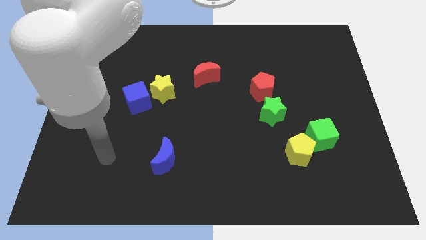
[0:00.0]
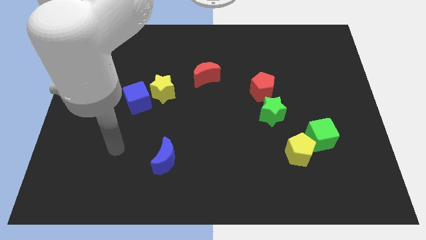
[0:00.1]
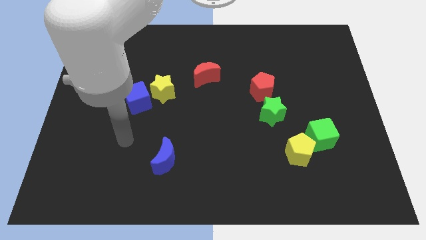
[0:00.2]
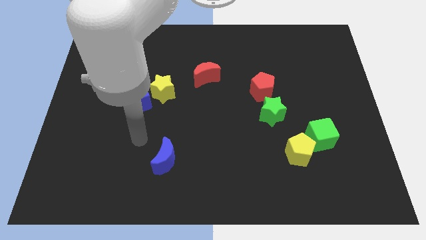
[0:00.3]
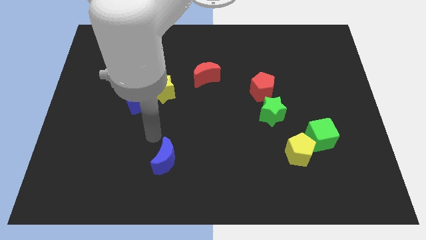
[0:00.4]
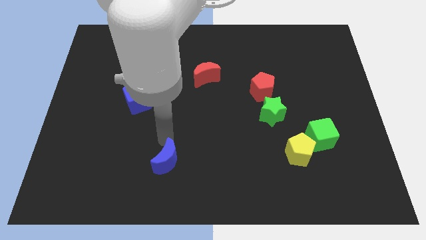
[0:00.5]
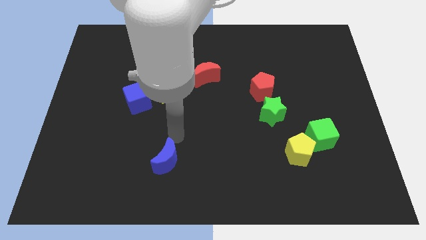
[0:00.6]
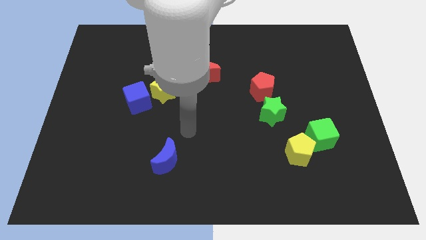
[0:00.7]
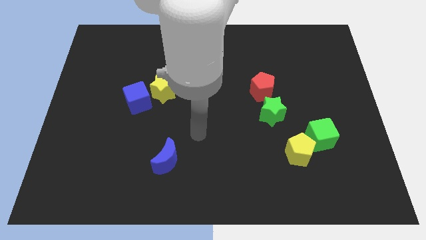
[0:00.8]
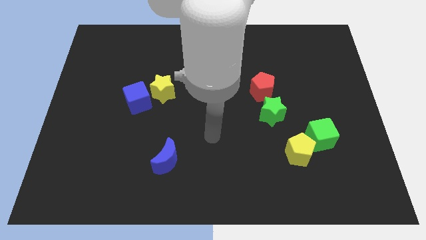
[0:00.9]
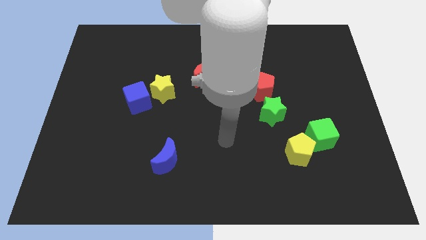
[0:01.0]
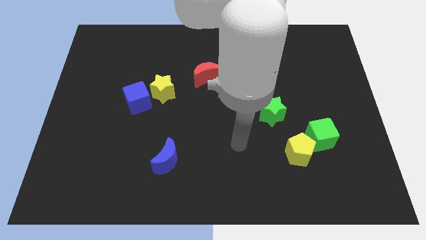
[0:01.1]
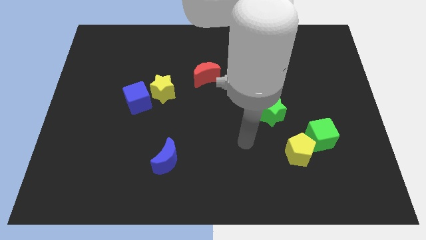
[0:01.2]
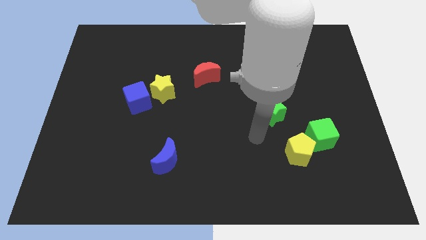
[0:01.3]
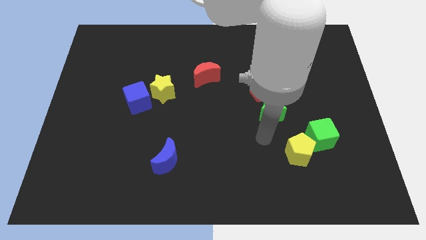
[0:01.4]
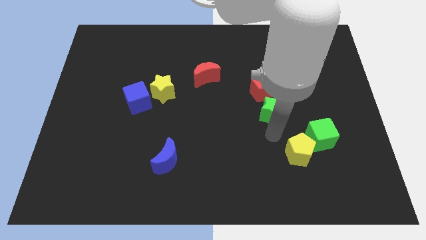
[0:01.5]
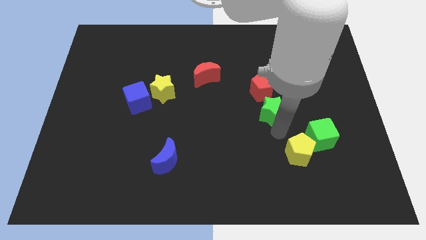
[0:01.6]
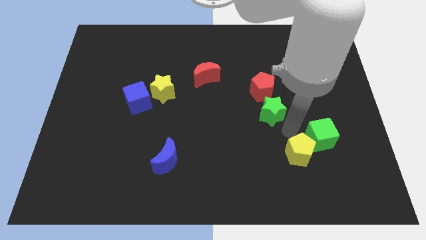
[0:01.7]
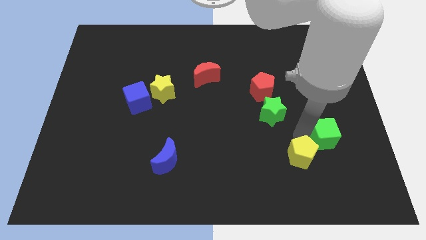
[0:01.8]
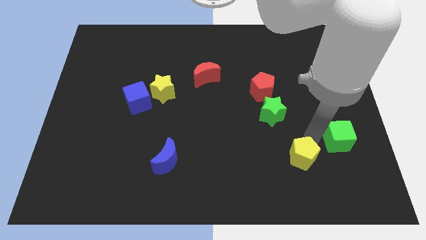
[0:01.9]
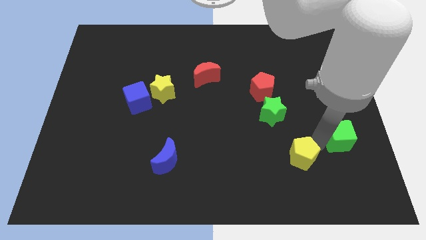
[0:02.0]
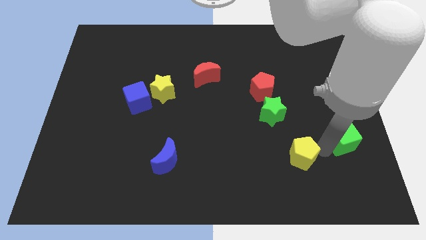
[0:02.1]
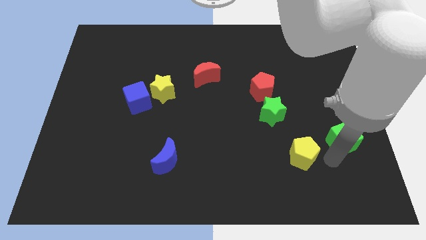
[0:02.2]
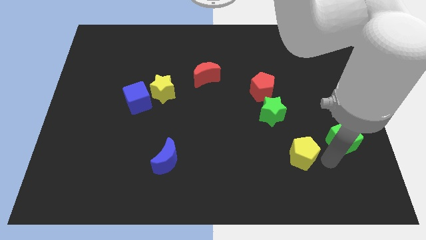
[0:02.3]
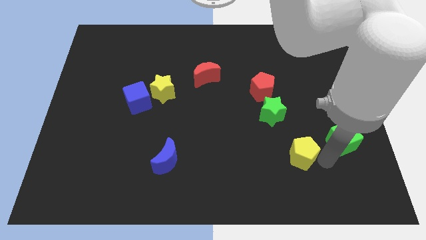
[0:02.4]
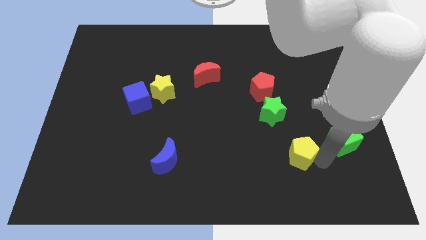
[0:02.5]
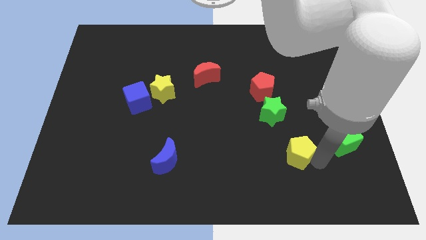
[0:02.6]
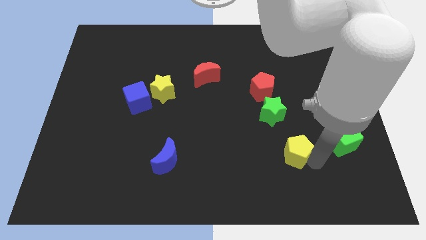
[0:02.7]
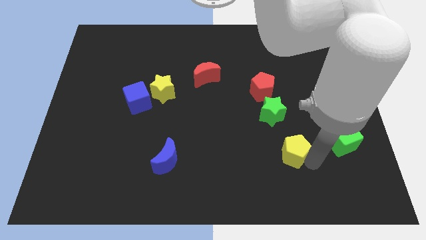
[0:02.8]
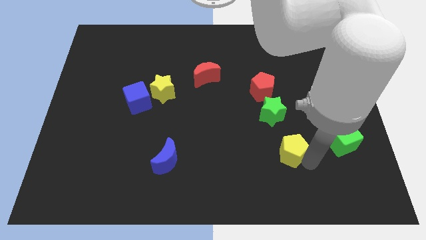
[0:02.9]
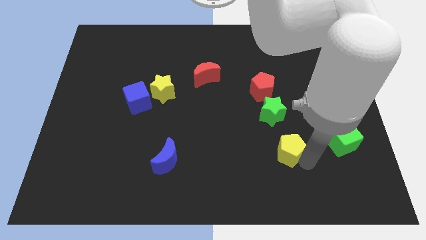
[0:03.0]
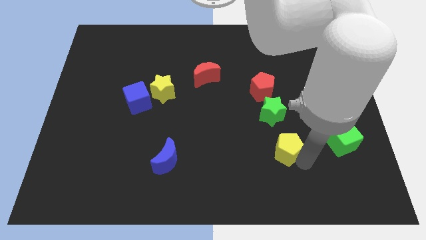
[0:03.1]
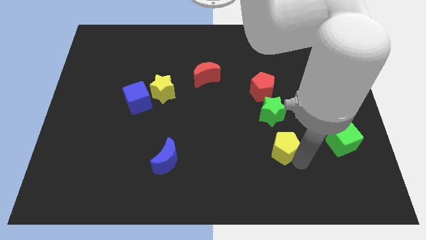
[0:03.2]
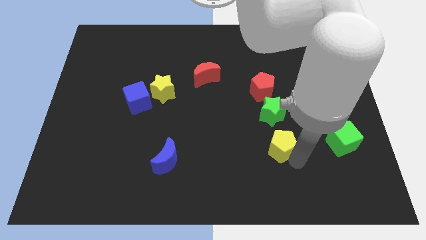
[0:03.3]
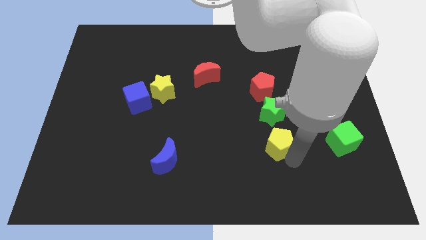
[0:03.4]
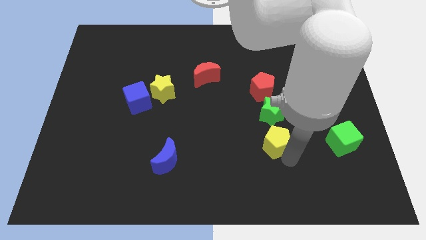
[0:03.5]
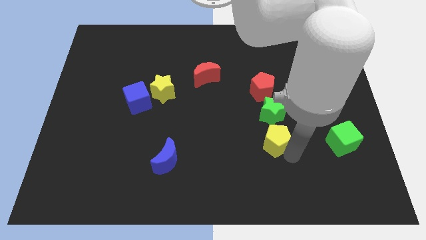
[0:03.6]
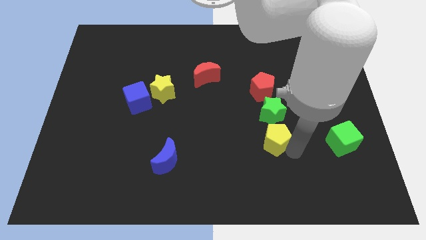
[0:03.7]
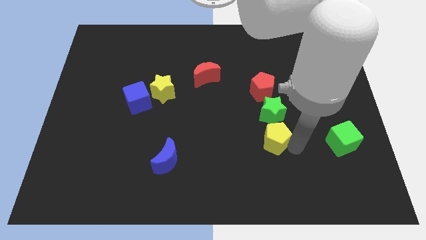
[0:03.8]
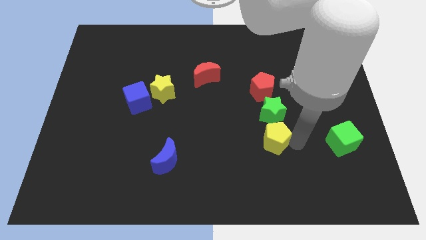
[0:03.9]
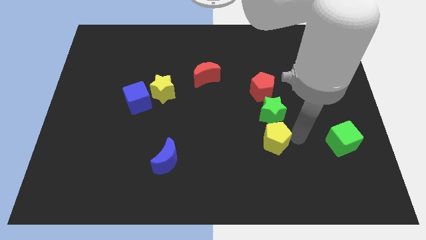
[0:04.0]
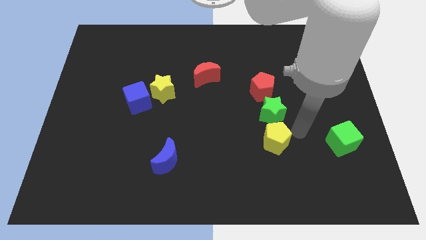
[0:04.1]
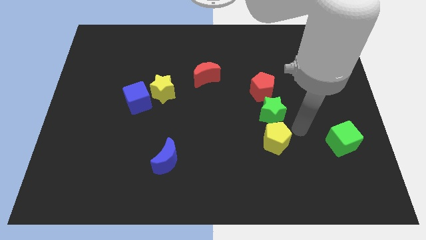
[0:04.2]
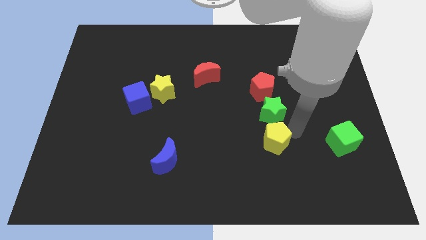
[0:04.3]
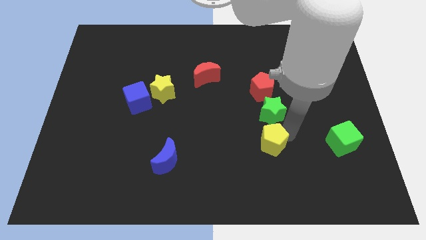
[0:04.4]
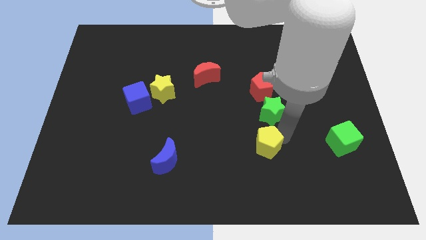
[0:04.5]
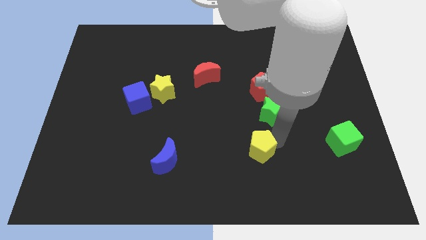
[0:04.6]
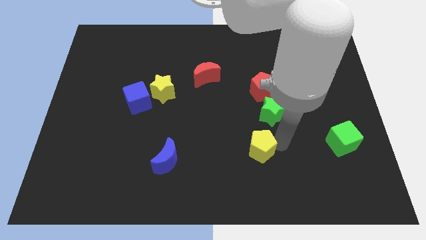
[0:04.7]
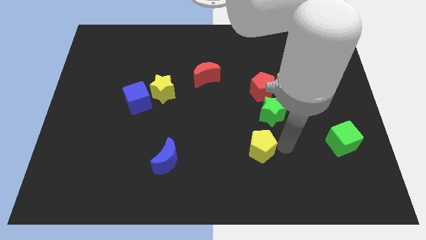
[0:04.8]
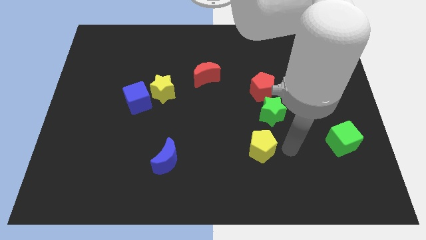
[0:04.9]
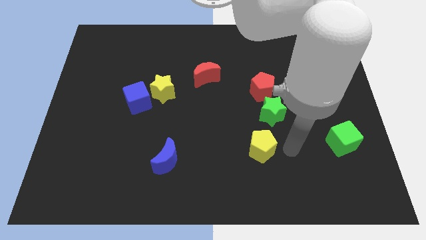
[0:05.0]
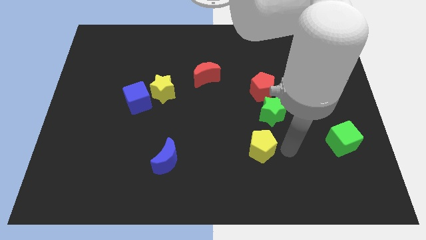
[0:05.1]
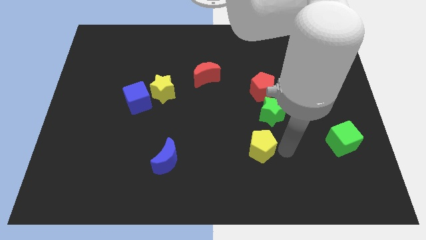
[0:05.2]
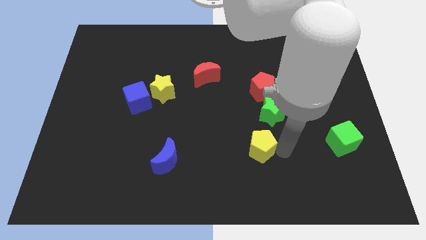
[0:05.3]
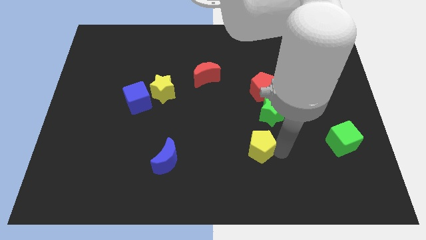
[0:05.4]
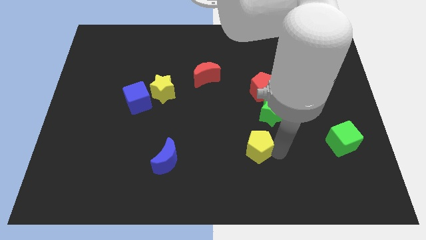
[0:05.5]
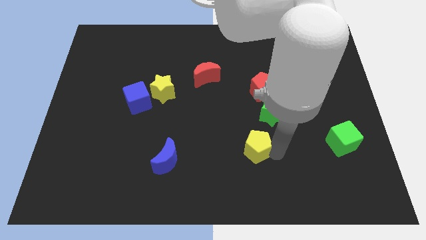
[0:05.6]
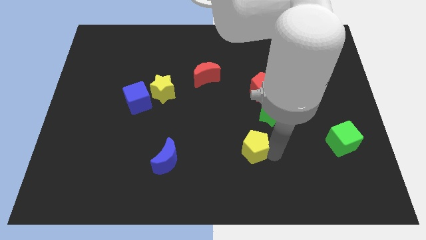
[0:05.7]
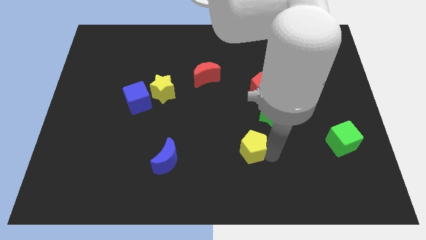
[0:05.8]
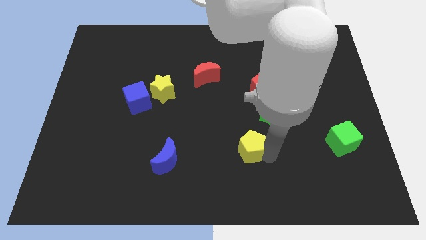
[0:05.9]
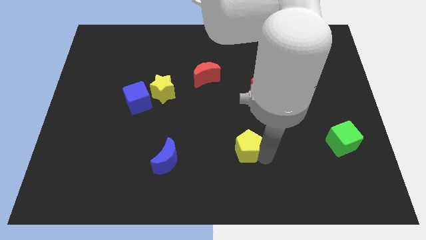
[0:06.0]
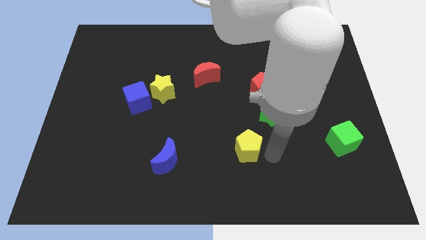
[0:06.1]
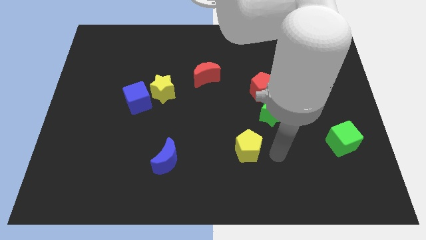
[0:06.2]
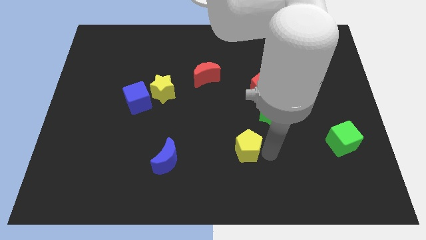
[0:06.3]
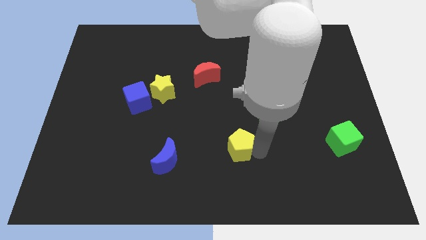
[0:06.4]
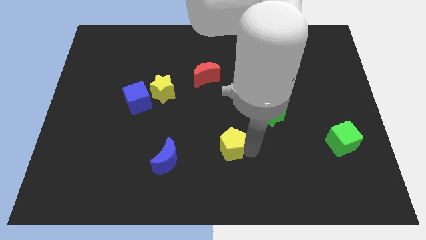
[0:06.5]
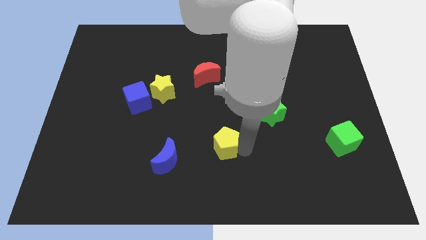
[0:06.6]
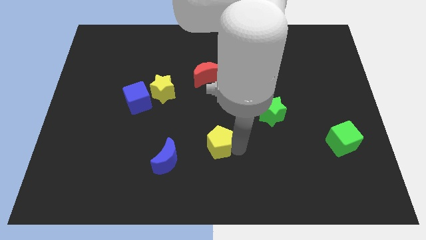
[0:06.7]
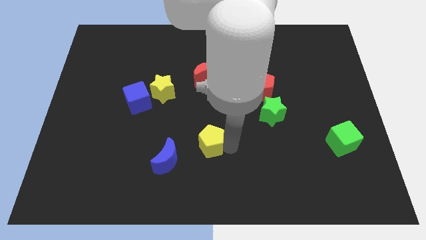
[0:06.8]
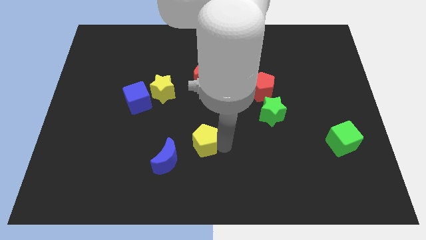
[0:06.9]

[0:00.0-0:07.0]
move the yellow pentagon to the left

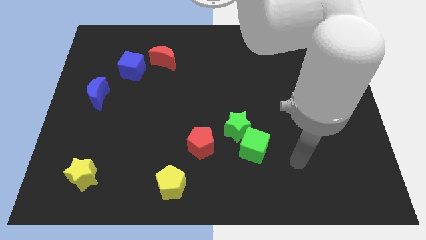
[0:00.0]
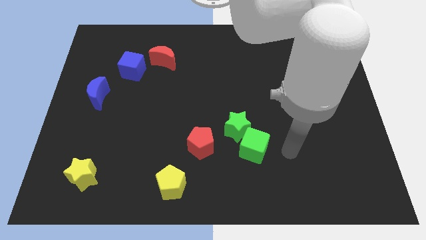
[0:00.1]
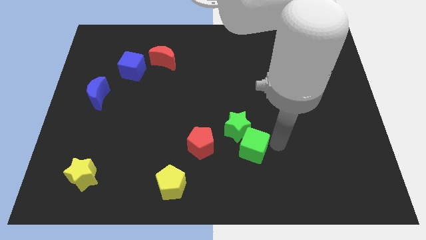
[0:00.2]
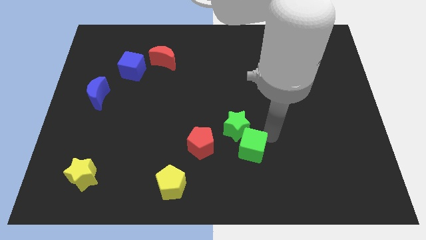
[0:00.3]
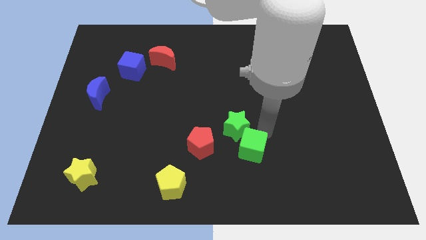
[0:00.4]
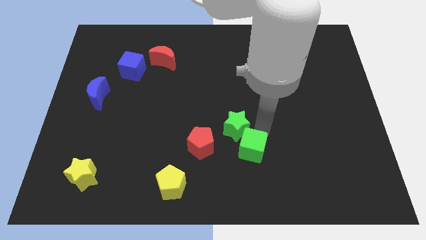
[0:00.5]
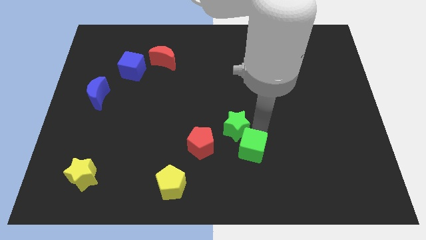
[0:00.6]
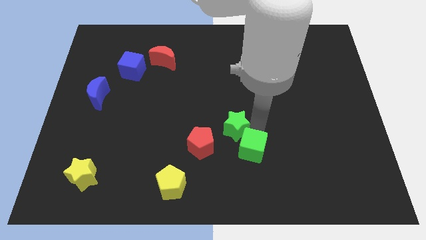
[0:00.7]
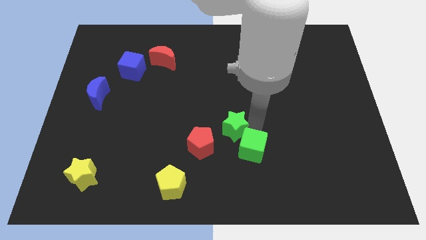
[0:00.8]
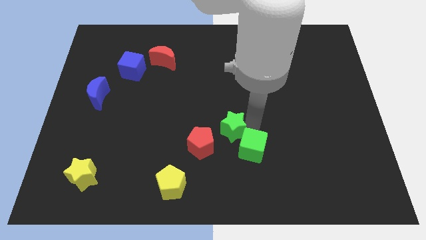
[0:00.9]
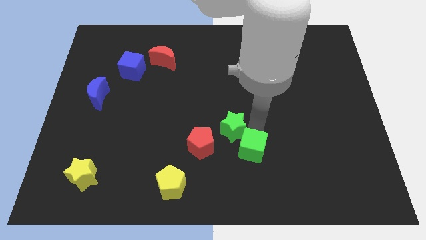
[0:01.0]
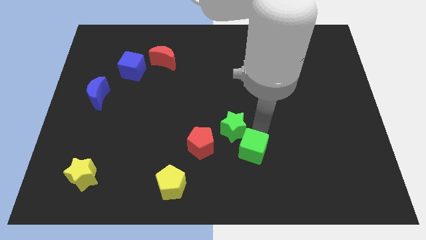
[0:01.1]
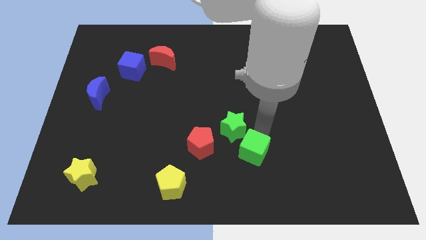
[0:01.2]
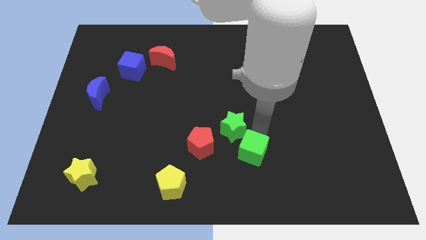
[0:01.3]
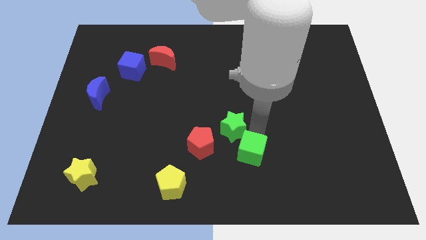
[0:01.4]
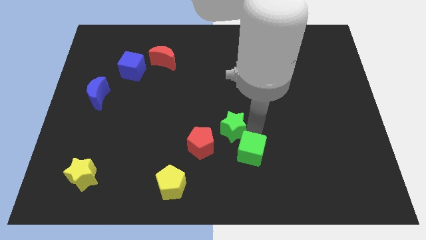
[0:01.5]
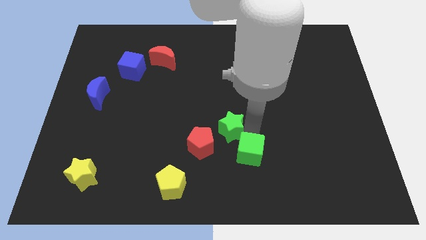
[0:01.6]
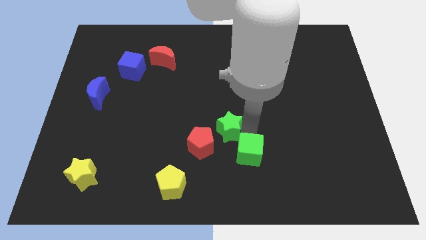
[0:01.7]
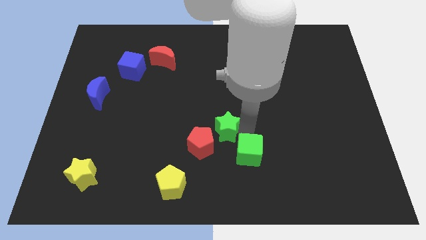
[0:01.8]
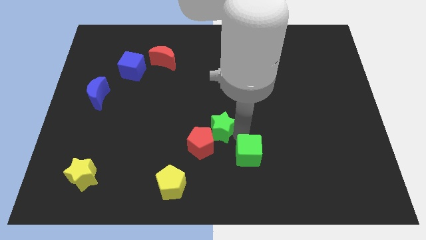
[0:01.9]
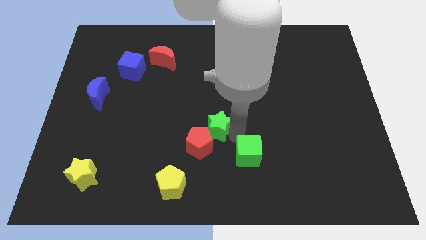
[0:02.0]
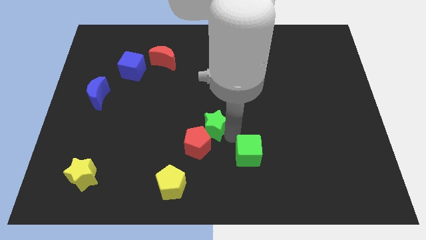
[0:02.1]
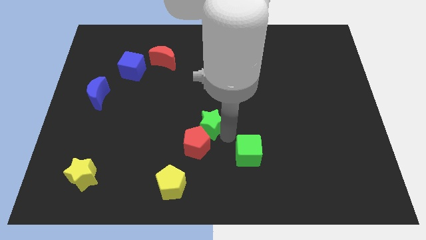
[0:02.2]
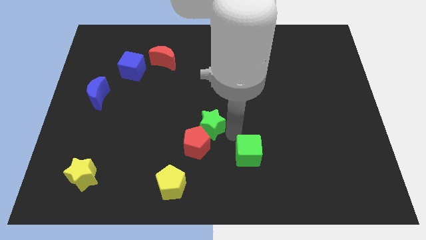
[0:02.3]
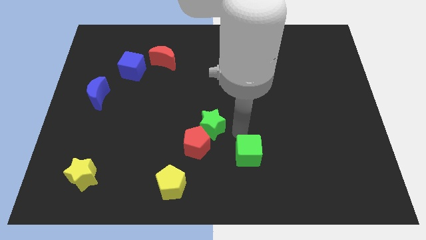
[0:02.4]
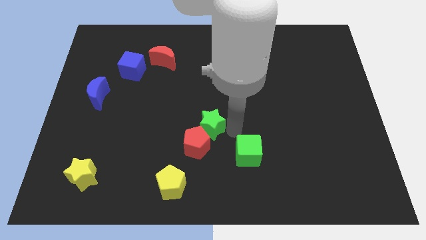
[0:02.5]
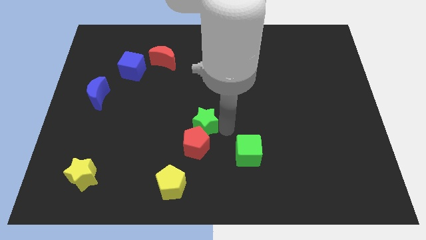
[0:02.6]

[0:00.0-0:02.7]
slightly slide the green star to the left
